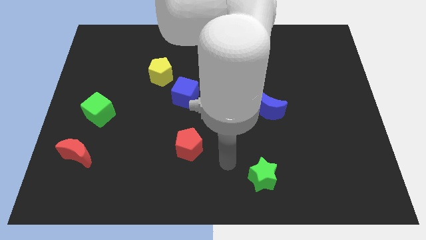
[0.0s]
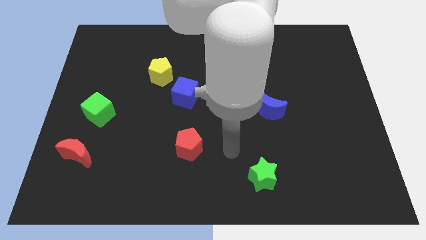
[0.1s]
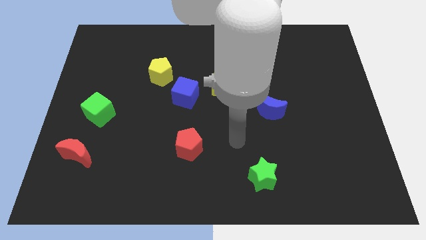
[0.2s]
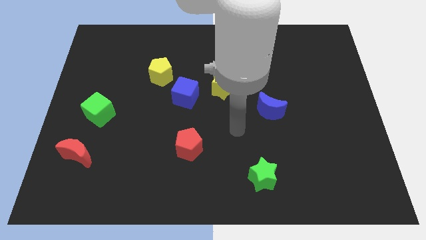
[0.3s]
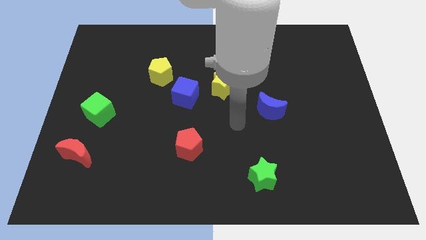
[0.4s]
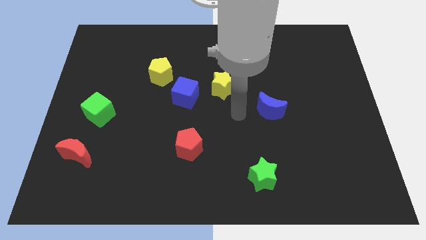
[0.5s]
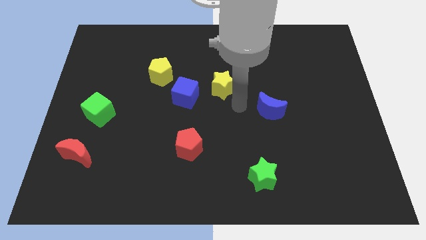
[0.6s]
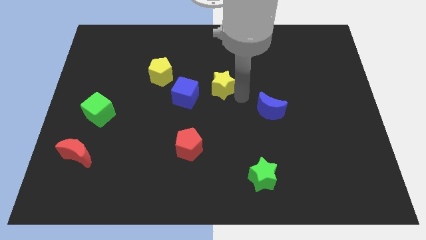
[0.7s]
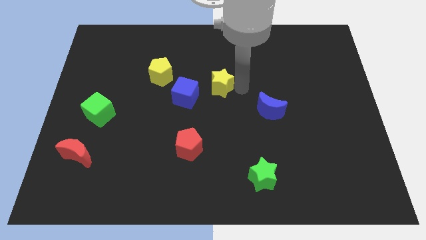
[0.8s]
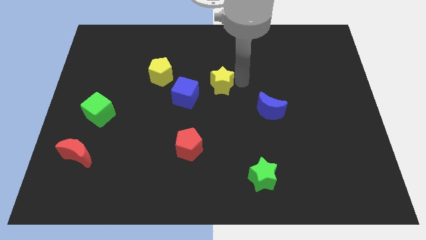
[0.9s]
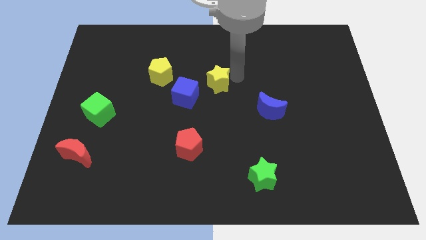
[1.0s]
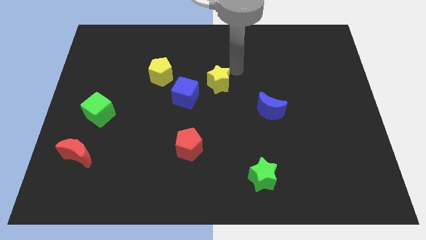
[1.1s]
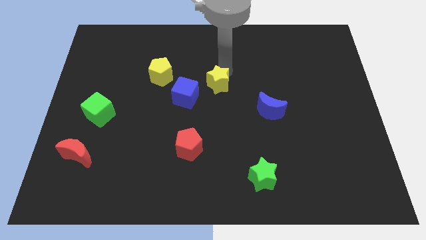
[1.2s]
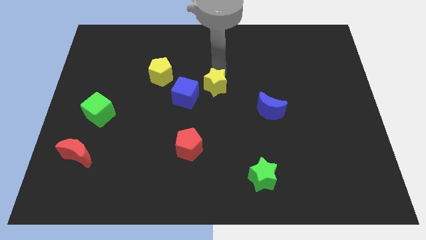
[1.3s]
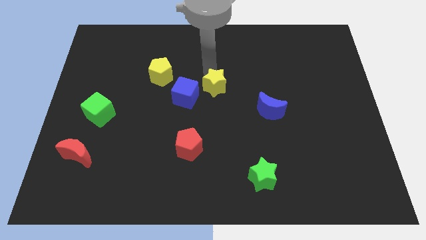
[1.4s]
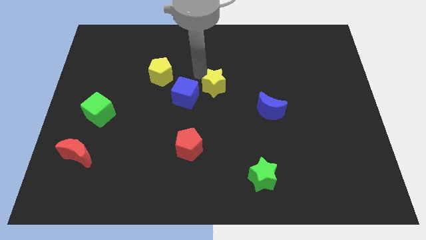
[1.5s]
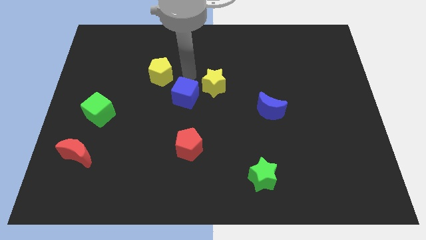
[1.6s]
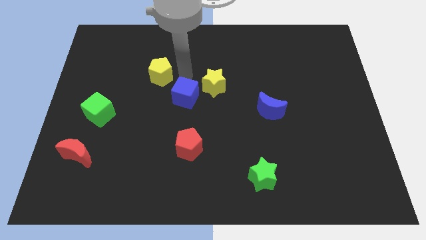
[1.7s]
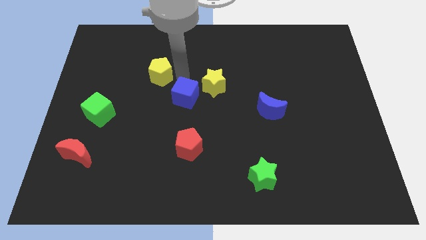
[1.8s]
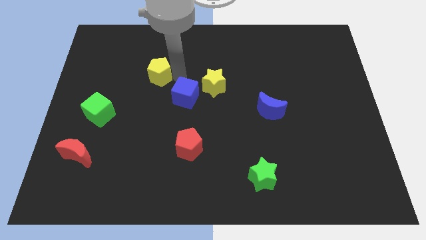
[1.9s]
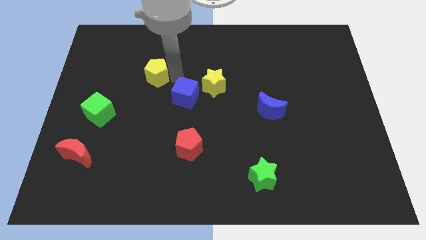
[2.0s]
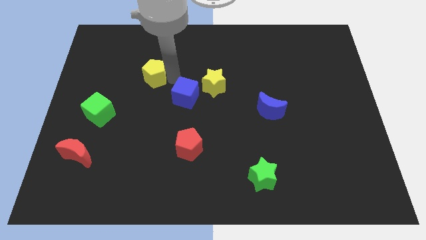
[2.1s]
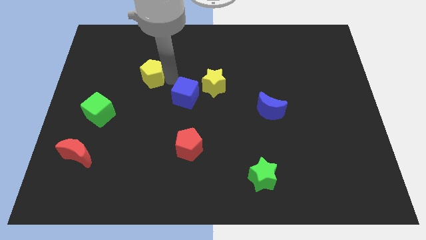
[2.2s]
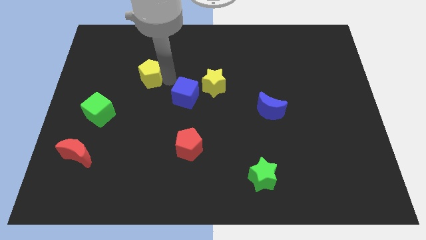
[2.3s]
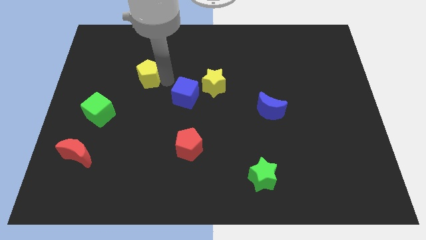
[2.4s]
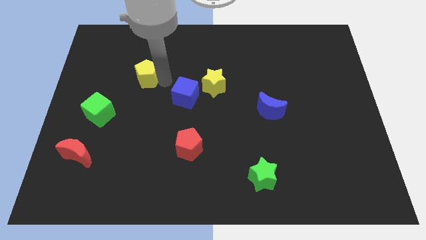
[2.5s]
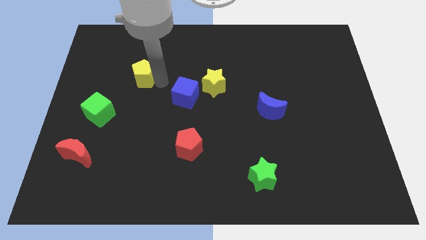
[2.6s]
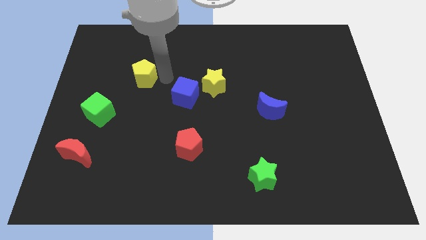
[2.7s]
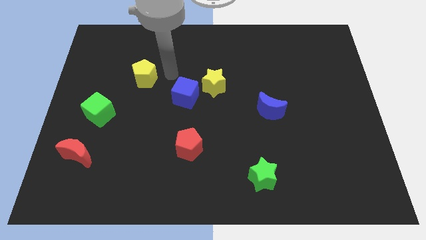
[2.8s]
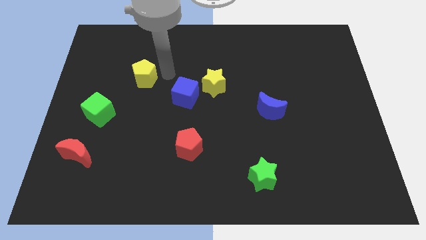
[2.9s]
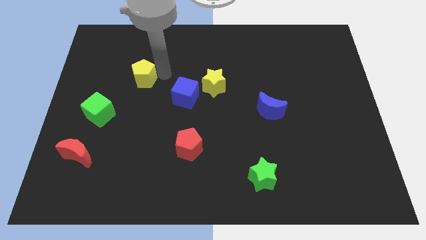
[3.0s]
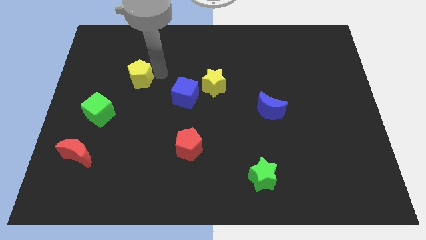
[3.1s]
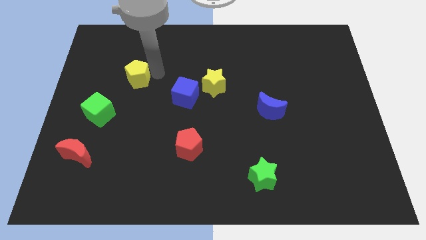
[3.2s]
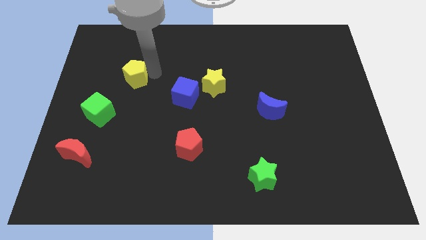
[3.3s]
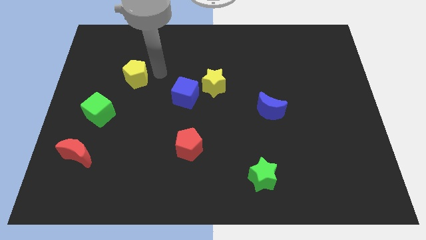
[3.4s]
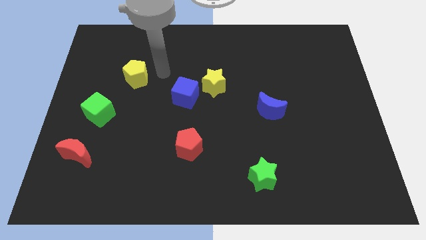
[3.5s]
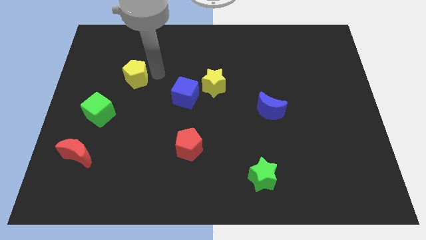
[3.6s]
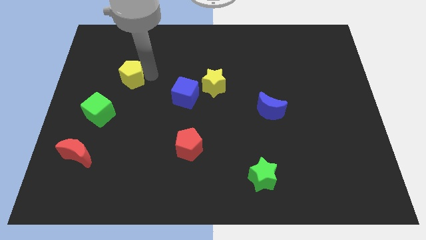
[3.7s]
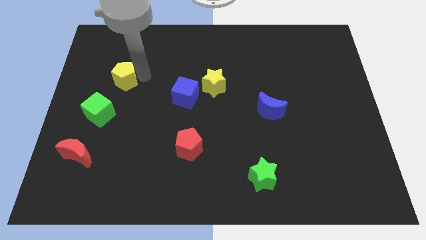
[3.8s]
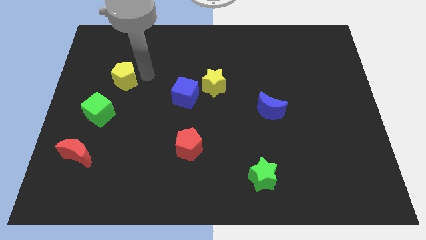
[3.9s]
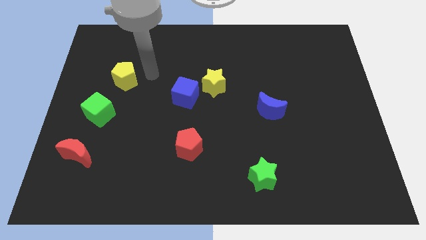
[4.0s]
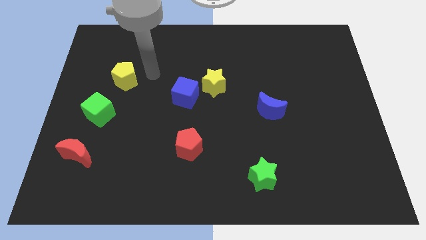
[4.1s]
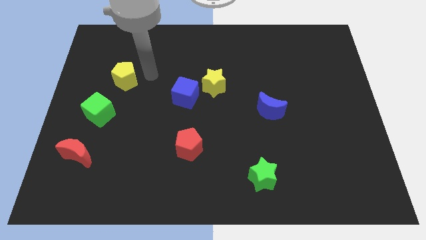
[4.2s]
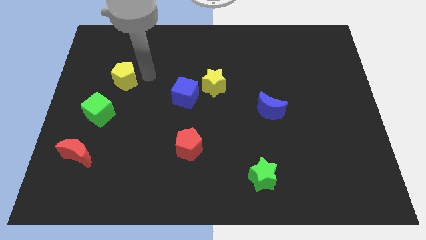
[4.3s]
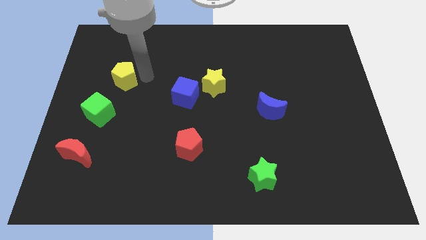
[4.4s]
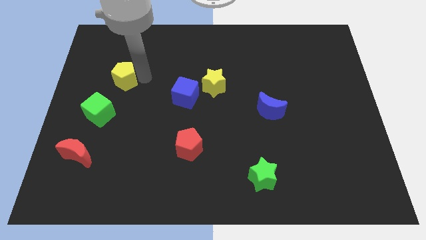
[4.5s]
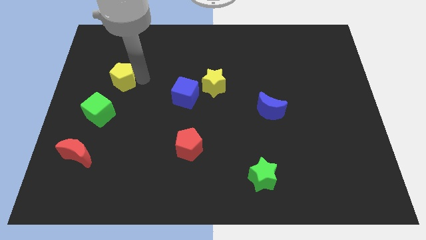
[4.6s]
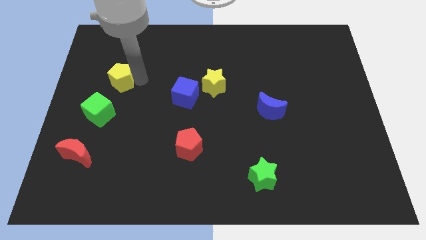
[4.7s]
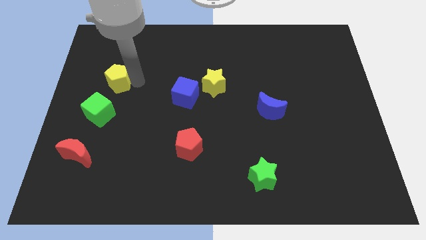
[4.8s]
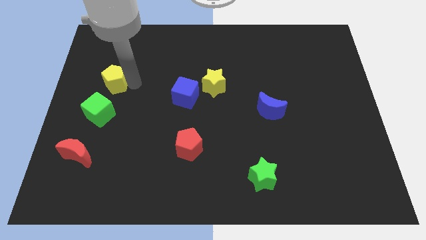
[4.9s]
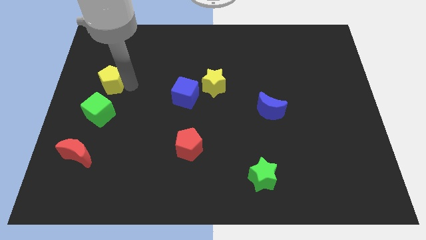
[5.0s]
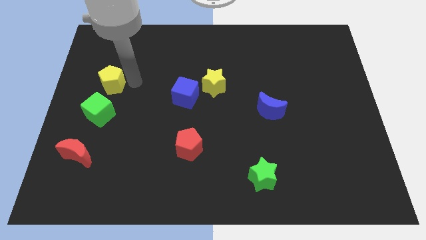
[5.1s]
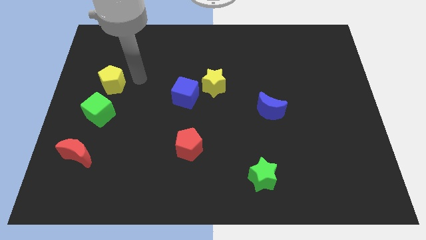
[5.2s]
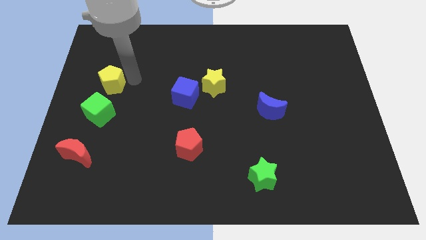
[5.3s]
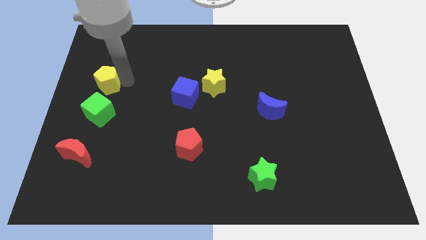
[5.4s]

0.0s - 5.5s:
put the yellow pentagon to the center left
